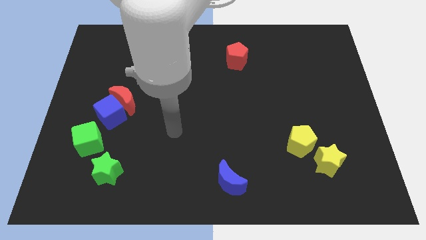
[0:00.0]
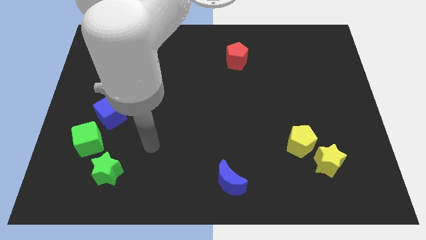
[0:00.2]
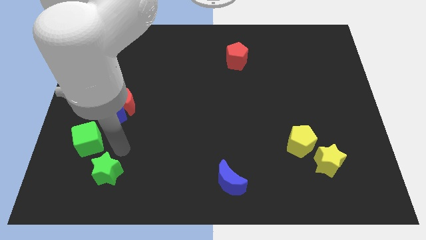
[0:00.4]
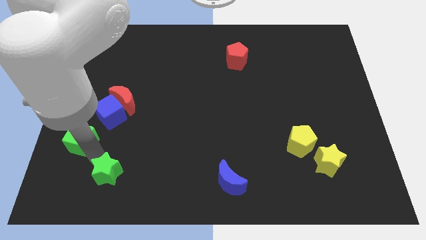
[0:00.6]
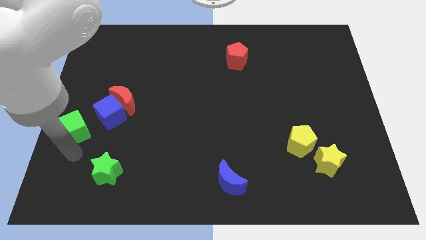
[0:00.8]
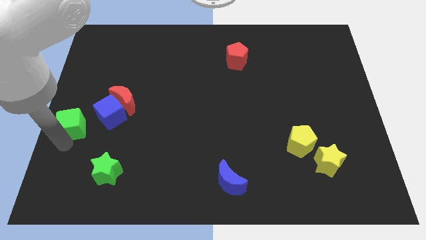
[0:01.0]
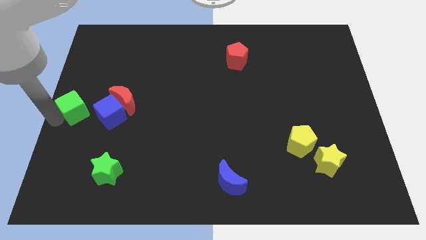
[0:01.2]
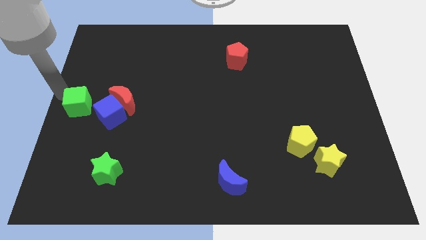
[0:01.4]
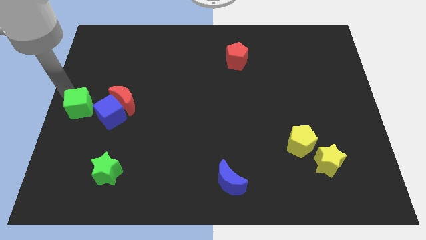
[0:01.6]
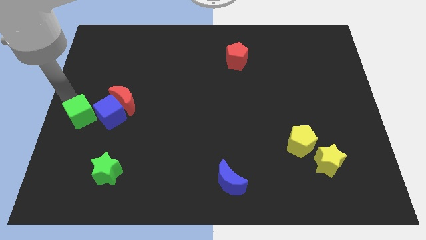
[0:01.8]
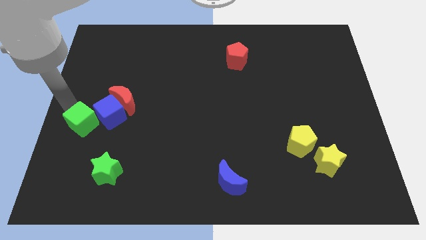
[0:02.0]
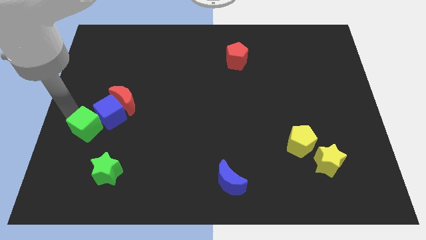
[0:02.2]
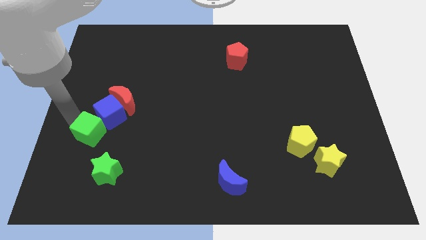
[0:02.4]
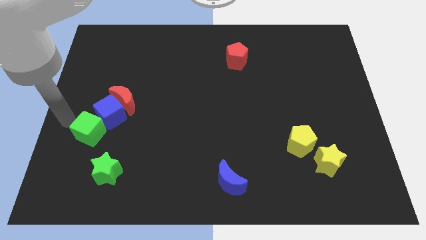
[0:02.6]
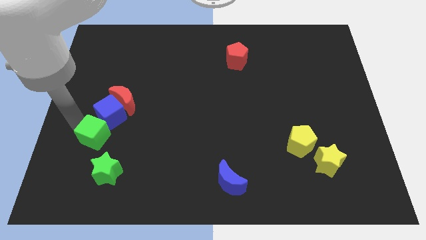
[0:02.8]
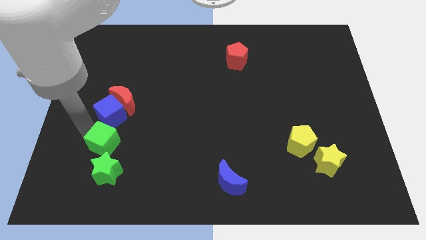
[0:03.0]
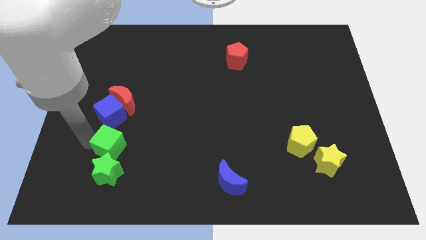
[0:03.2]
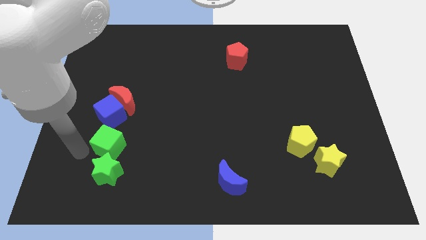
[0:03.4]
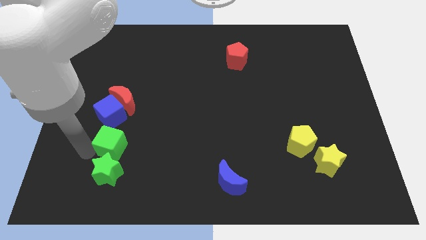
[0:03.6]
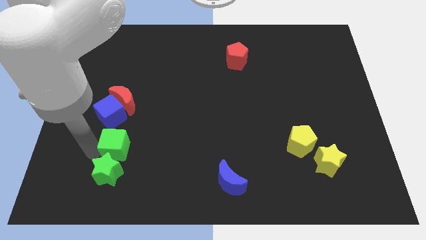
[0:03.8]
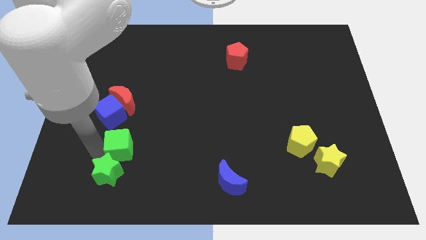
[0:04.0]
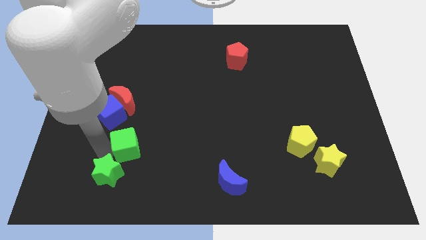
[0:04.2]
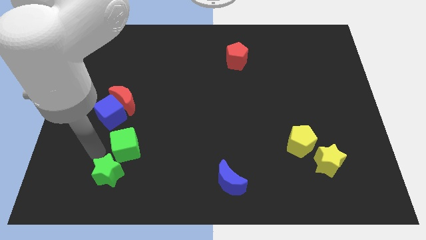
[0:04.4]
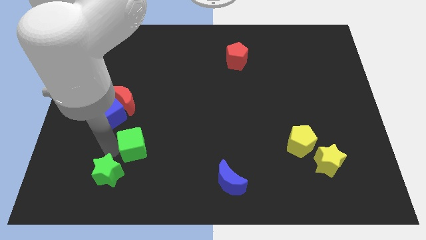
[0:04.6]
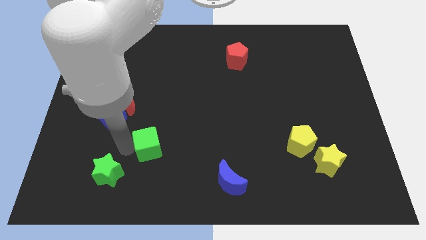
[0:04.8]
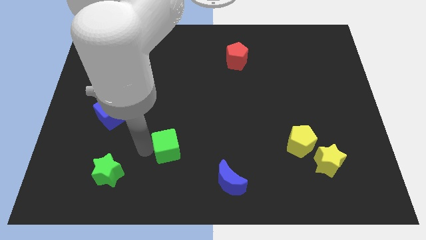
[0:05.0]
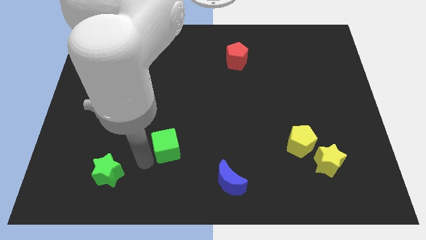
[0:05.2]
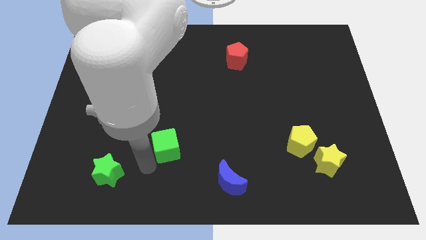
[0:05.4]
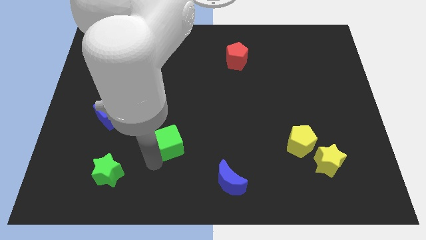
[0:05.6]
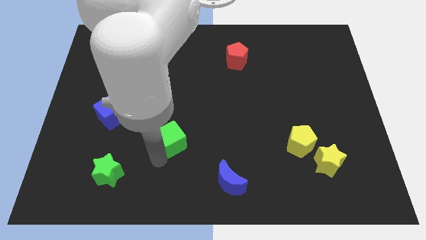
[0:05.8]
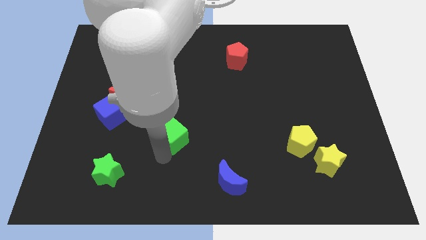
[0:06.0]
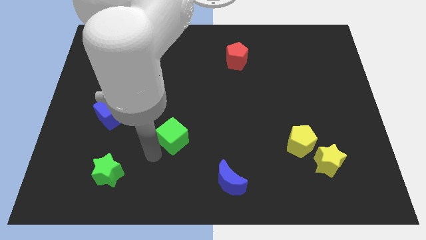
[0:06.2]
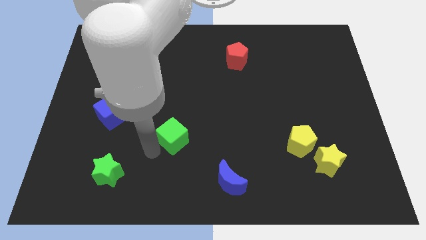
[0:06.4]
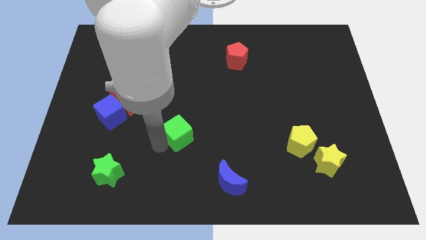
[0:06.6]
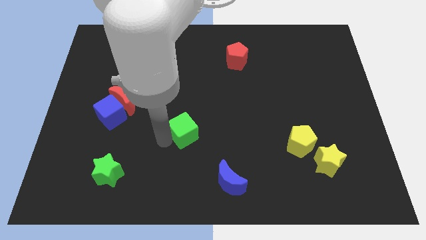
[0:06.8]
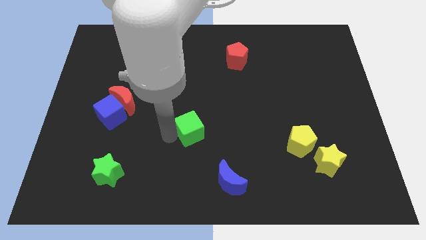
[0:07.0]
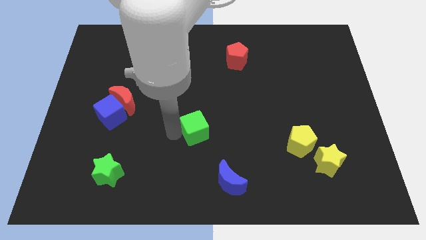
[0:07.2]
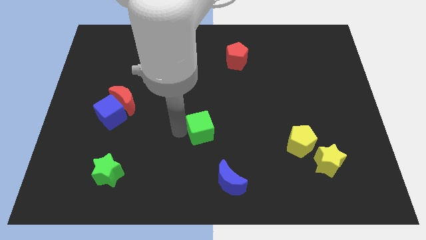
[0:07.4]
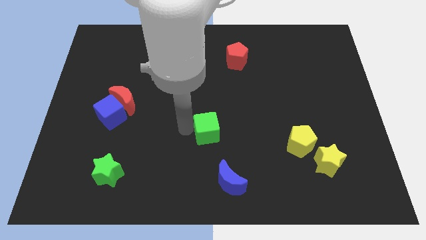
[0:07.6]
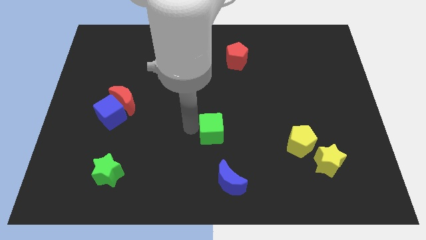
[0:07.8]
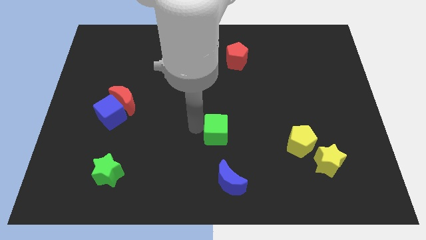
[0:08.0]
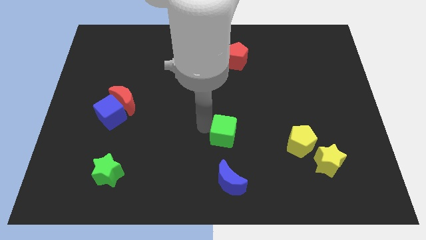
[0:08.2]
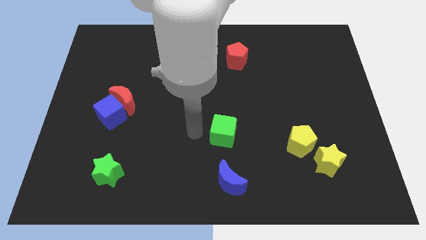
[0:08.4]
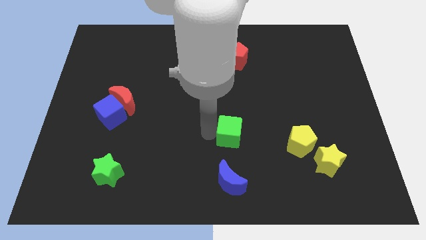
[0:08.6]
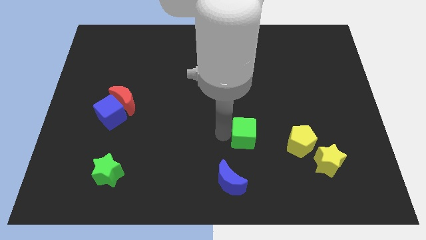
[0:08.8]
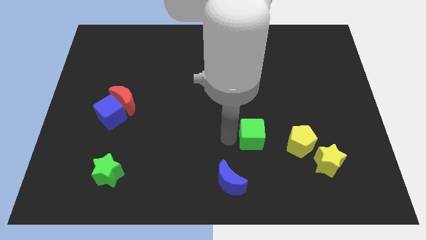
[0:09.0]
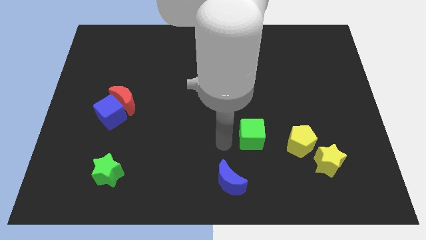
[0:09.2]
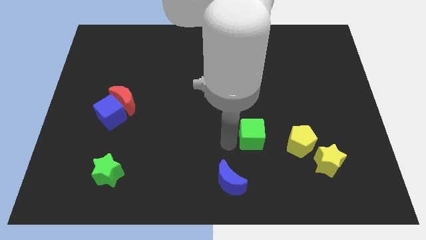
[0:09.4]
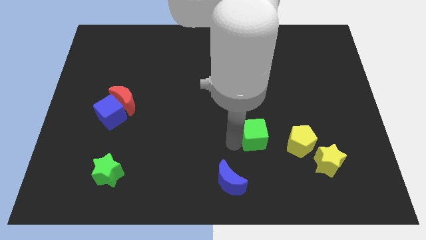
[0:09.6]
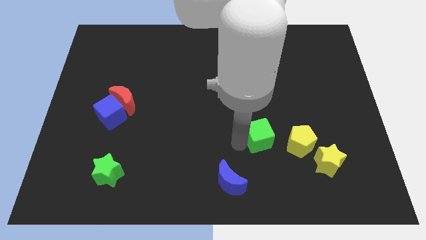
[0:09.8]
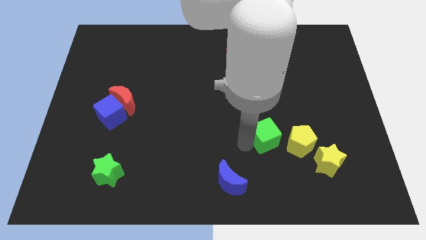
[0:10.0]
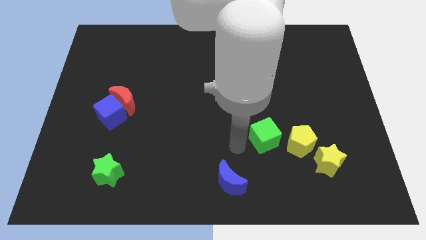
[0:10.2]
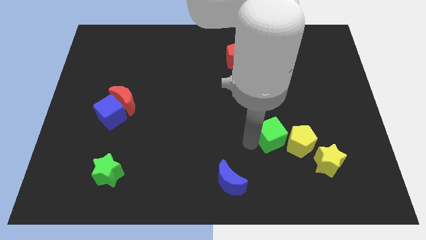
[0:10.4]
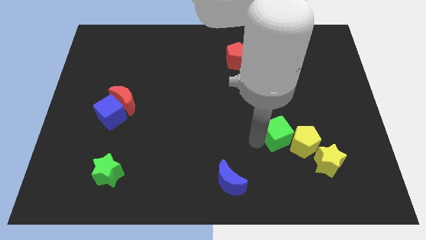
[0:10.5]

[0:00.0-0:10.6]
slide the green cube to the top left side of the yellow star

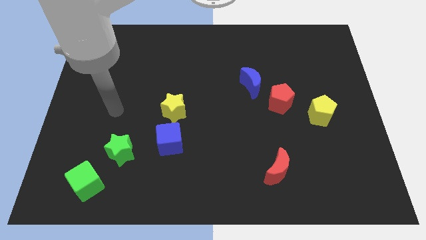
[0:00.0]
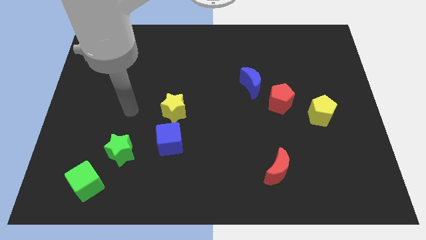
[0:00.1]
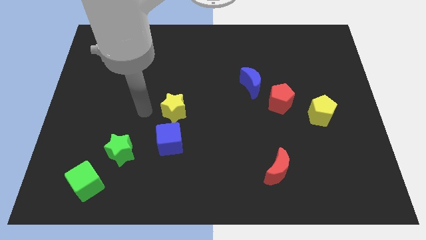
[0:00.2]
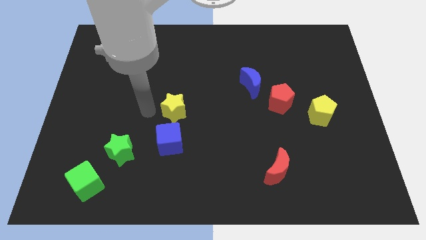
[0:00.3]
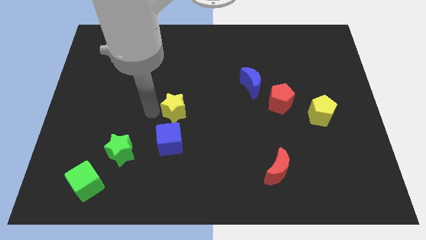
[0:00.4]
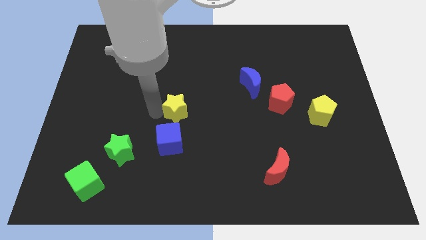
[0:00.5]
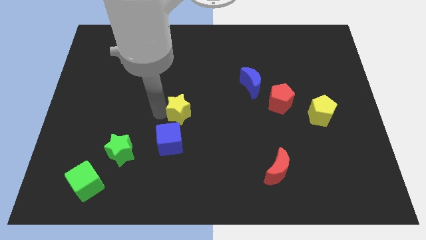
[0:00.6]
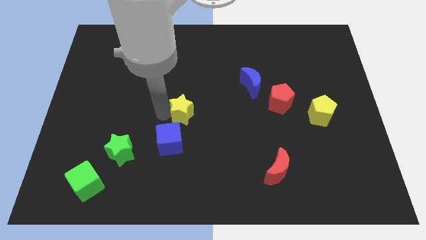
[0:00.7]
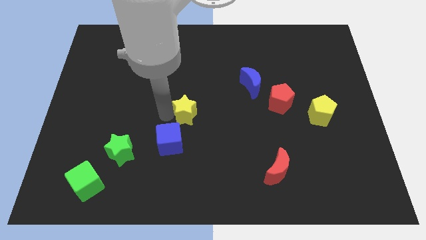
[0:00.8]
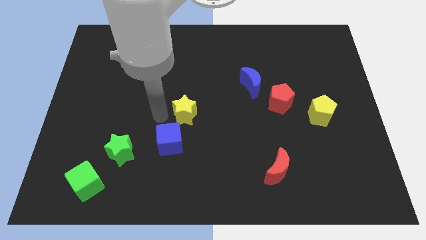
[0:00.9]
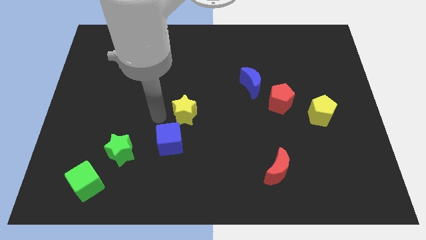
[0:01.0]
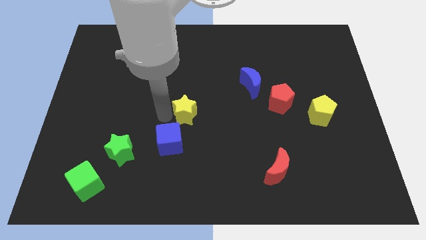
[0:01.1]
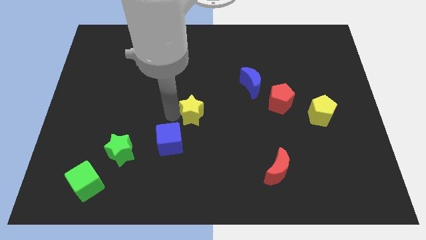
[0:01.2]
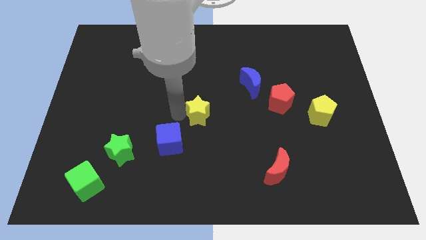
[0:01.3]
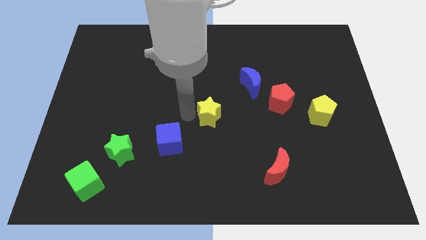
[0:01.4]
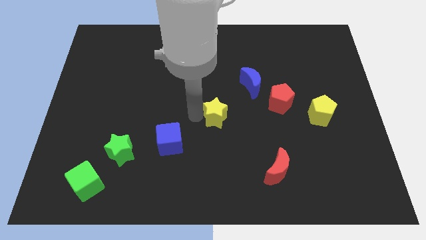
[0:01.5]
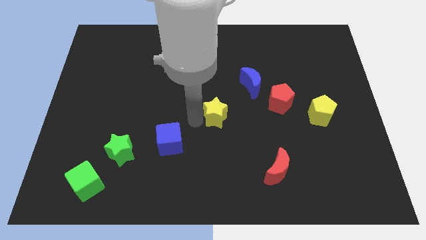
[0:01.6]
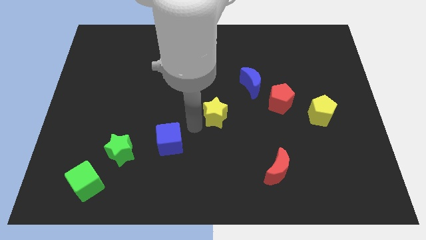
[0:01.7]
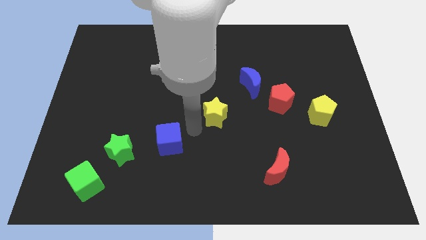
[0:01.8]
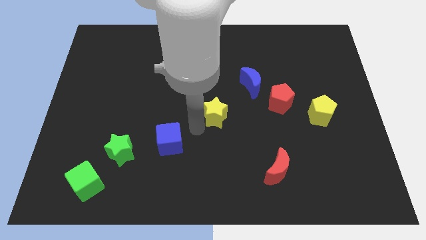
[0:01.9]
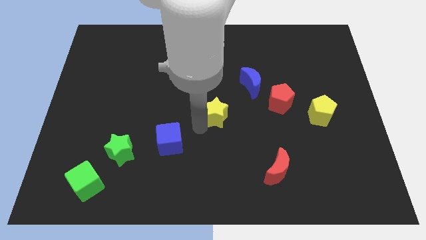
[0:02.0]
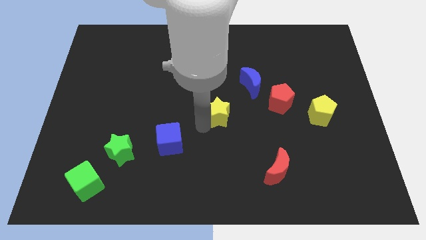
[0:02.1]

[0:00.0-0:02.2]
move the yellow star to the left of the red pentagon

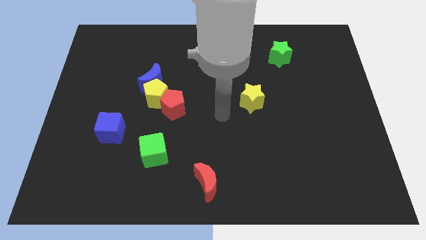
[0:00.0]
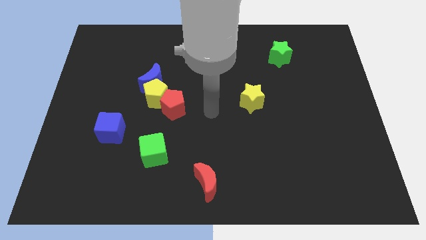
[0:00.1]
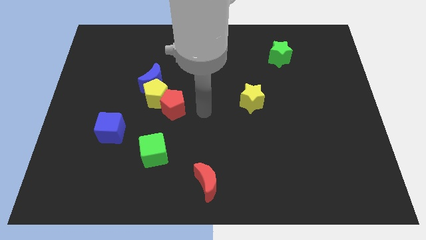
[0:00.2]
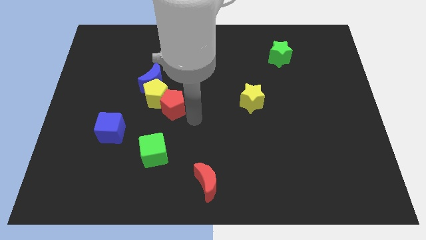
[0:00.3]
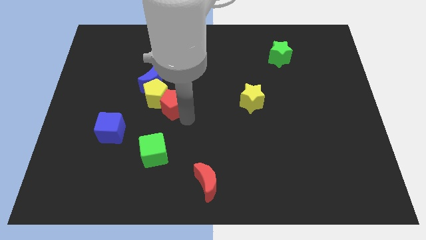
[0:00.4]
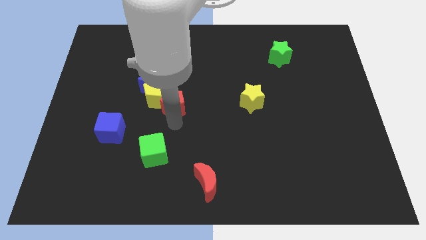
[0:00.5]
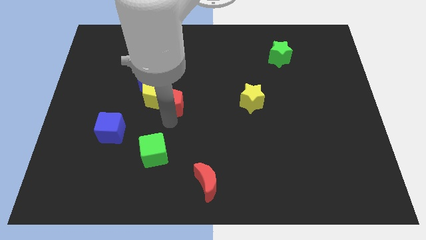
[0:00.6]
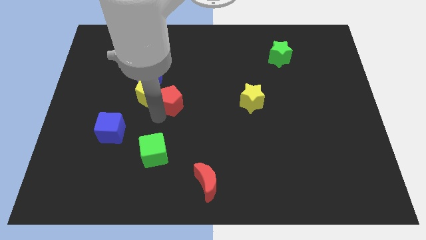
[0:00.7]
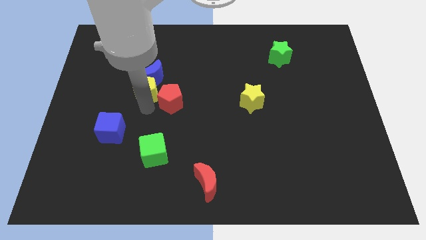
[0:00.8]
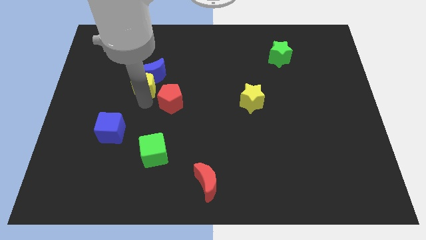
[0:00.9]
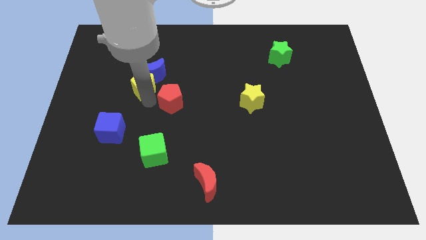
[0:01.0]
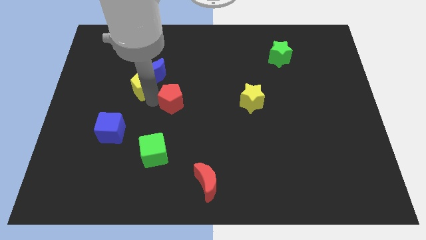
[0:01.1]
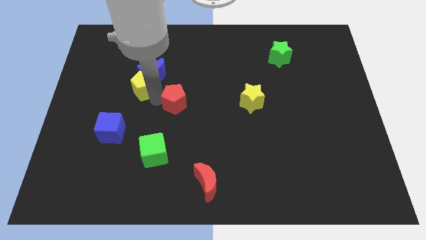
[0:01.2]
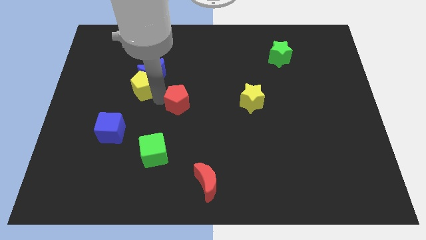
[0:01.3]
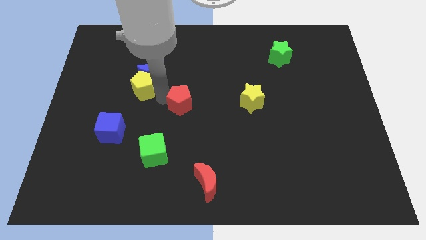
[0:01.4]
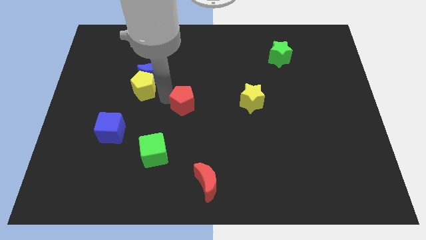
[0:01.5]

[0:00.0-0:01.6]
push the red pentagon to the left of the yellow star
